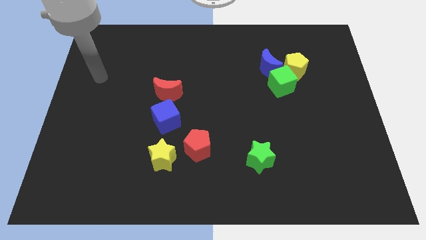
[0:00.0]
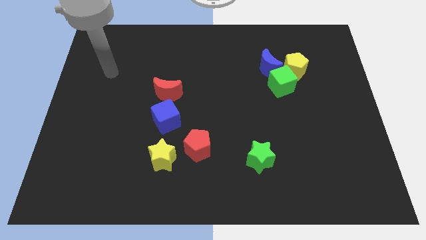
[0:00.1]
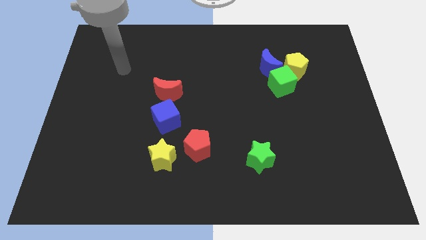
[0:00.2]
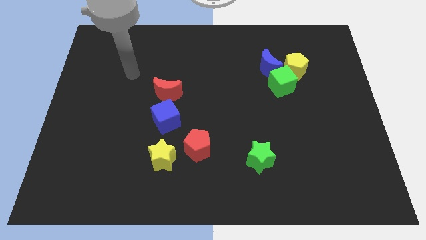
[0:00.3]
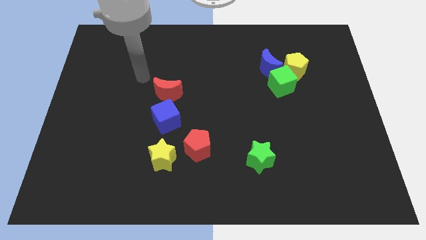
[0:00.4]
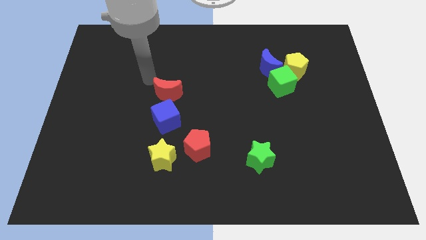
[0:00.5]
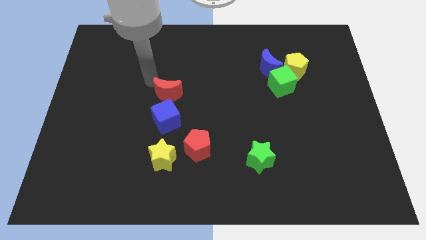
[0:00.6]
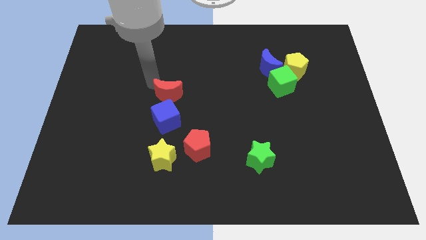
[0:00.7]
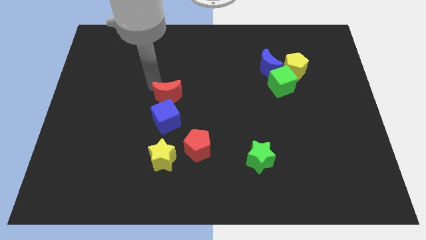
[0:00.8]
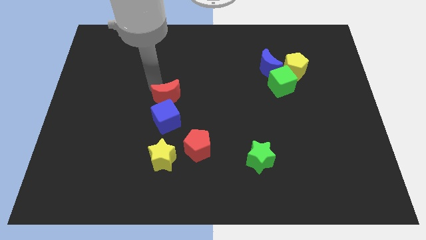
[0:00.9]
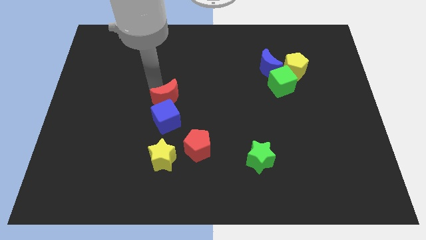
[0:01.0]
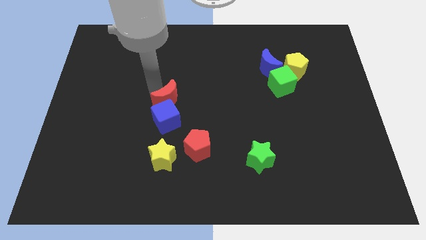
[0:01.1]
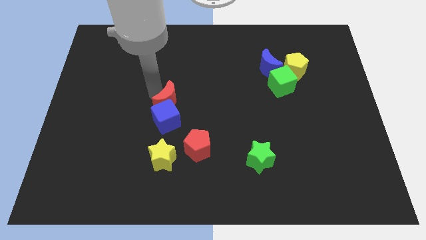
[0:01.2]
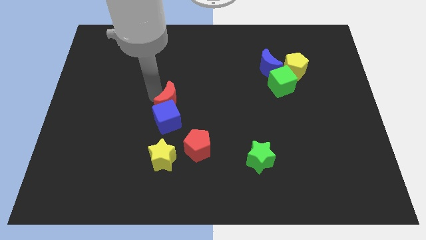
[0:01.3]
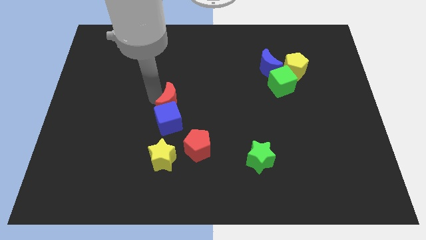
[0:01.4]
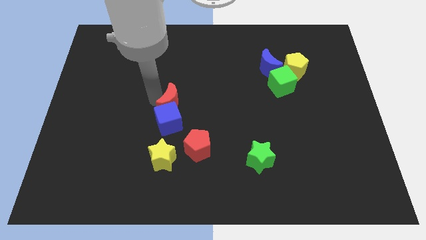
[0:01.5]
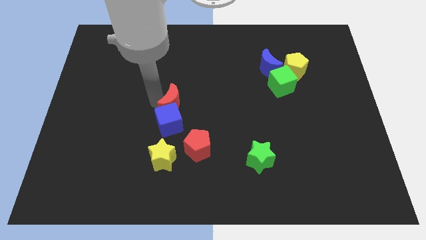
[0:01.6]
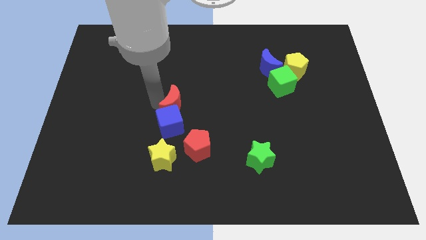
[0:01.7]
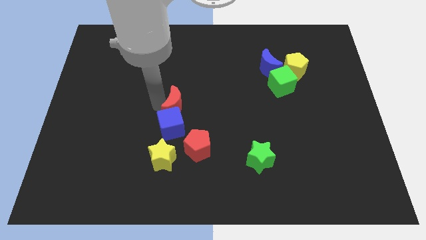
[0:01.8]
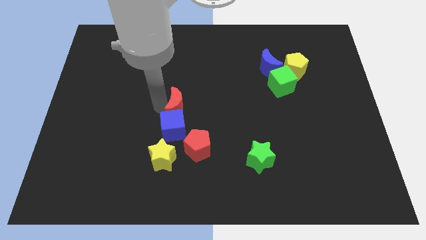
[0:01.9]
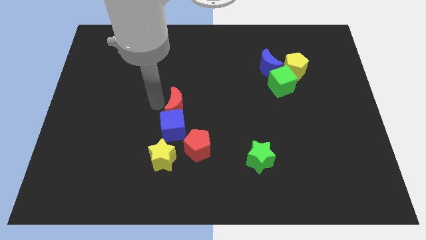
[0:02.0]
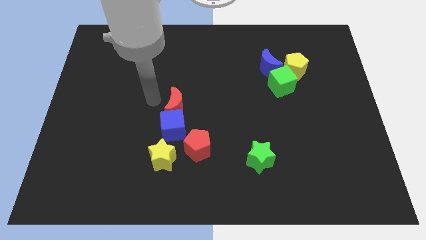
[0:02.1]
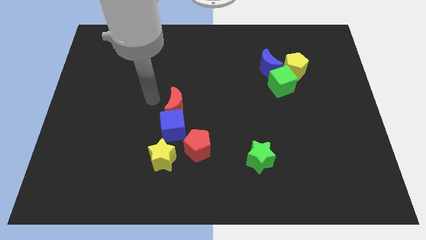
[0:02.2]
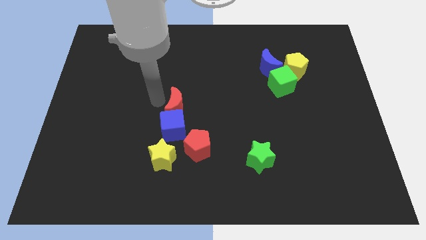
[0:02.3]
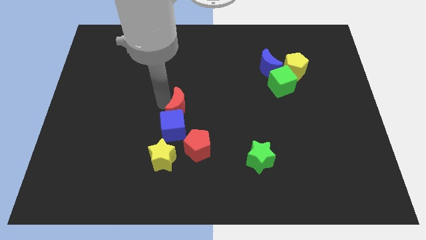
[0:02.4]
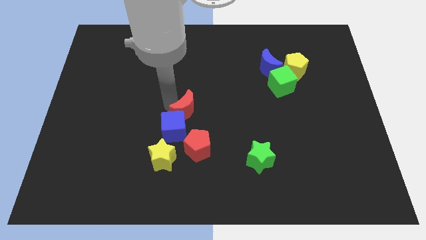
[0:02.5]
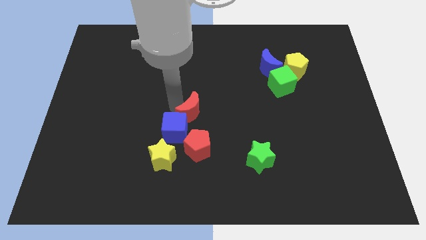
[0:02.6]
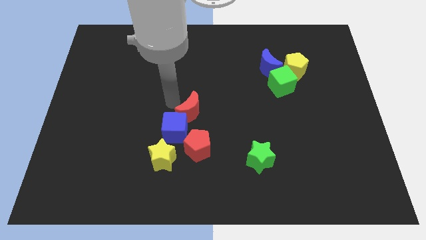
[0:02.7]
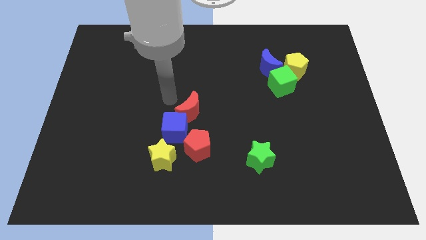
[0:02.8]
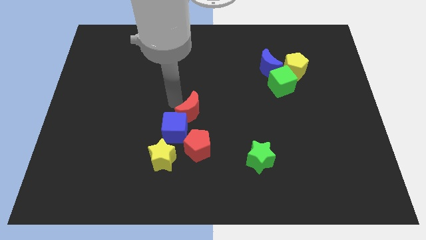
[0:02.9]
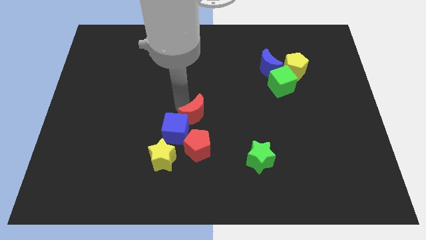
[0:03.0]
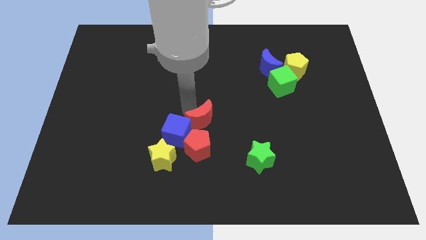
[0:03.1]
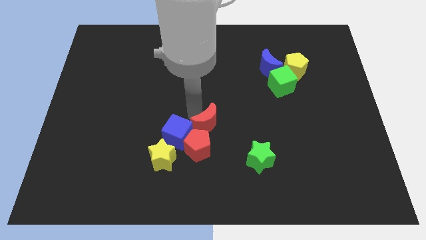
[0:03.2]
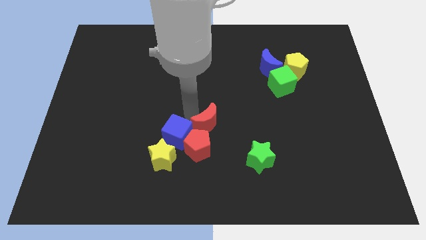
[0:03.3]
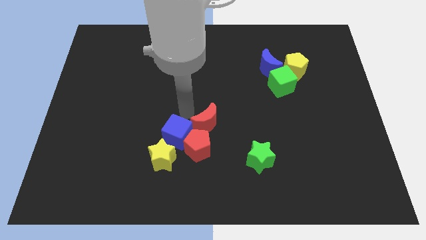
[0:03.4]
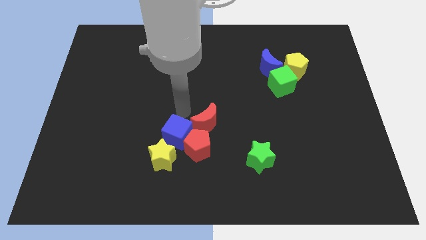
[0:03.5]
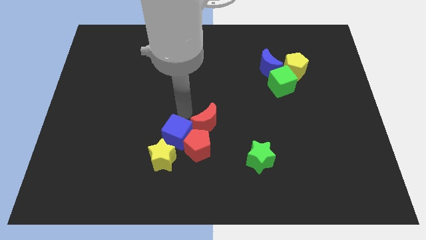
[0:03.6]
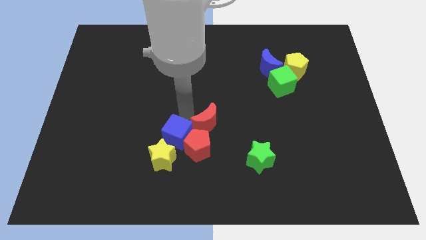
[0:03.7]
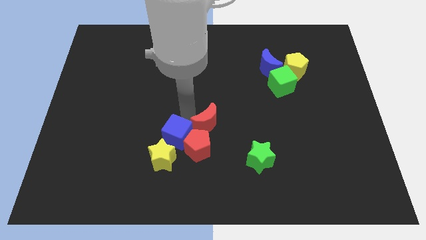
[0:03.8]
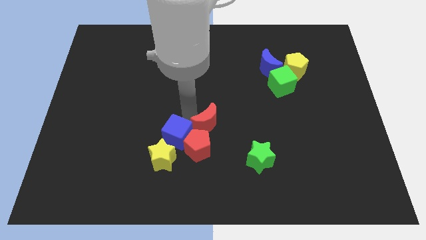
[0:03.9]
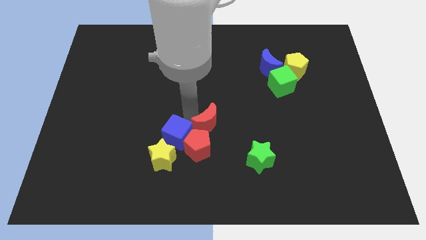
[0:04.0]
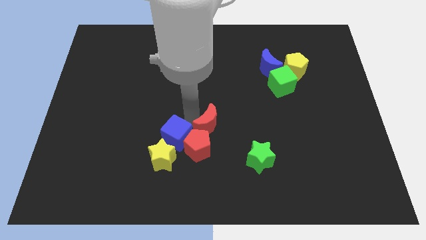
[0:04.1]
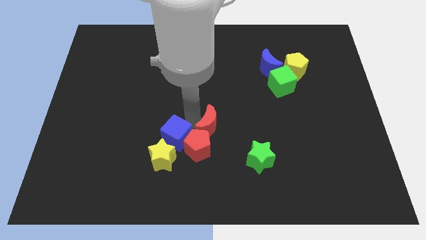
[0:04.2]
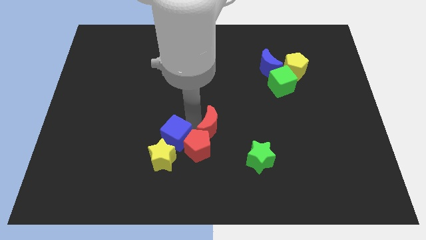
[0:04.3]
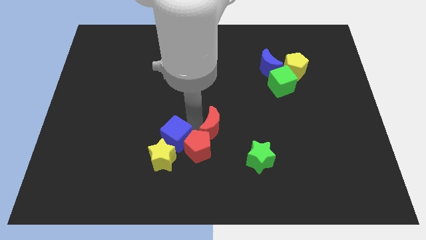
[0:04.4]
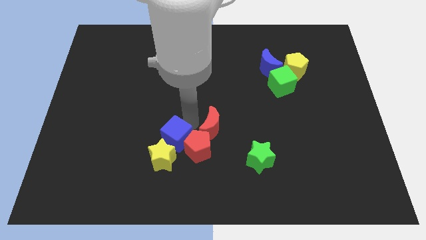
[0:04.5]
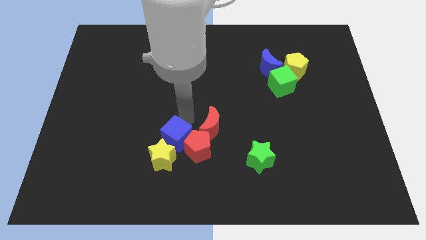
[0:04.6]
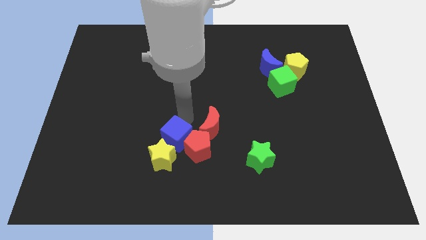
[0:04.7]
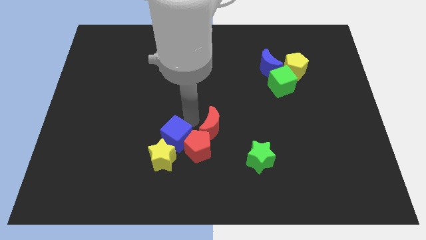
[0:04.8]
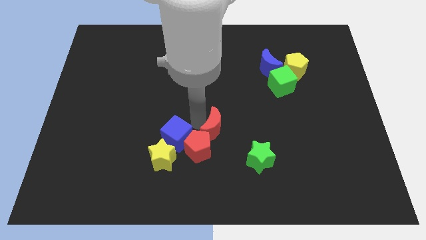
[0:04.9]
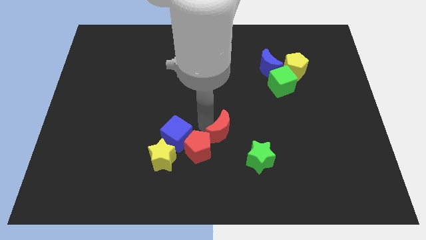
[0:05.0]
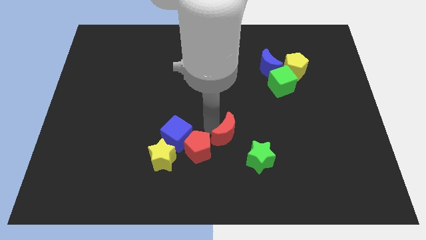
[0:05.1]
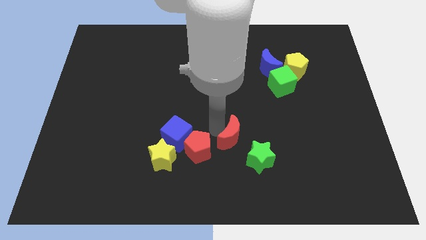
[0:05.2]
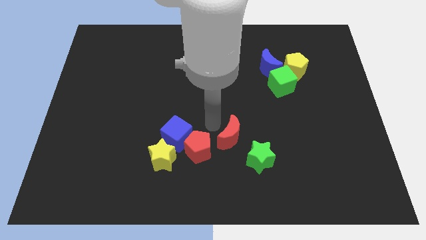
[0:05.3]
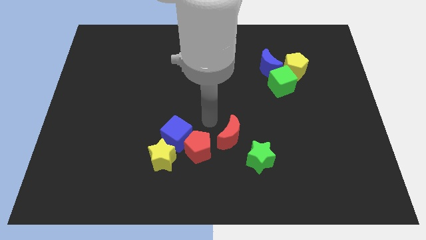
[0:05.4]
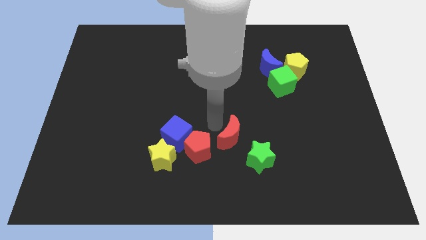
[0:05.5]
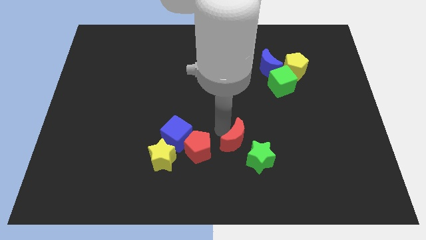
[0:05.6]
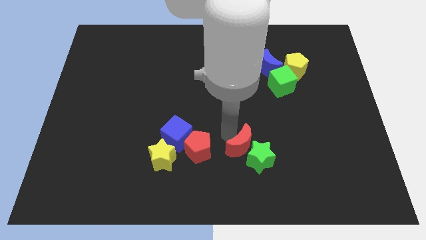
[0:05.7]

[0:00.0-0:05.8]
put the red moon to the green star

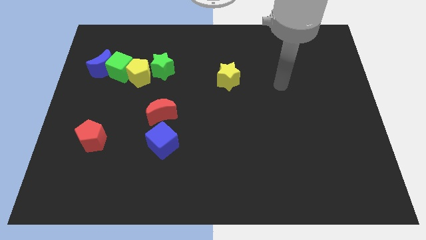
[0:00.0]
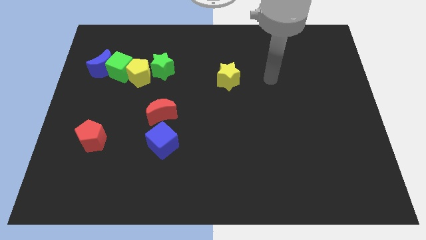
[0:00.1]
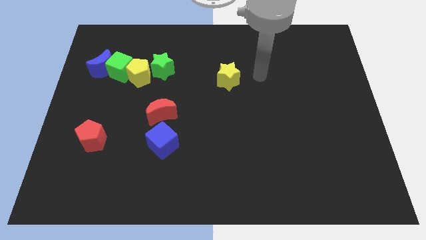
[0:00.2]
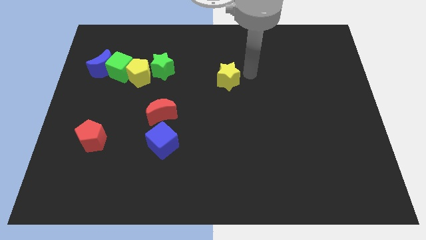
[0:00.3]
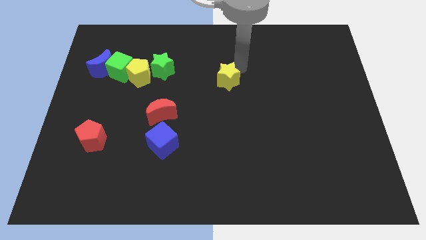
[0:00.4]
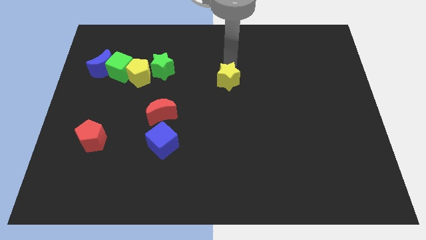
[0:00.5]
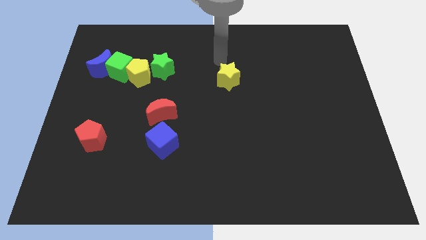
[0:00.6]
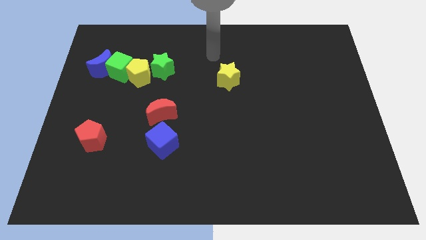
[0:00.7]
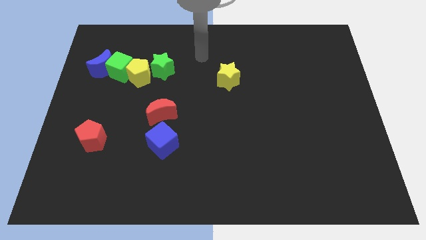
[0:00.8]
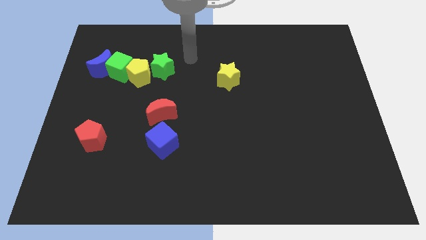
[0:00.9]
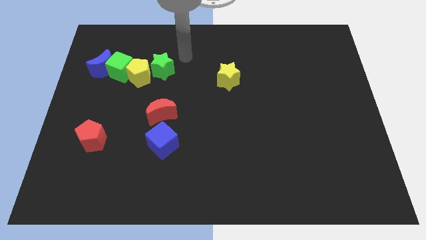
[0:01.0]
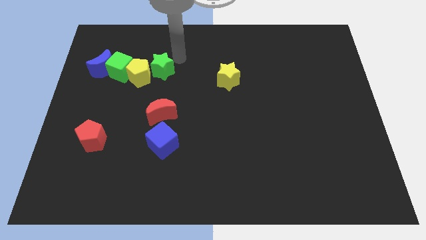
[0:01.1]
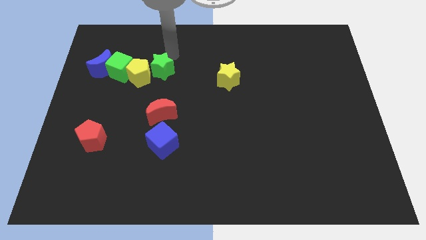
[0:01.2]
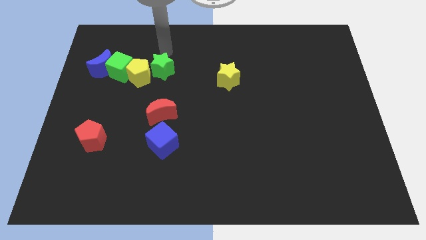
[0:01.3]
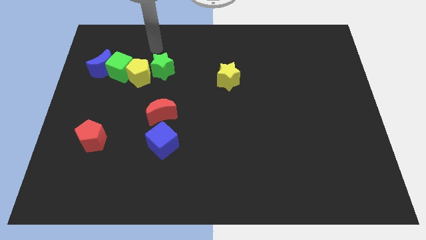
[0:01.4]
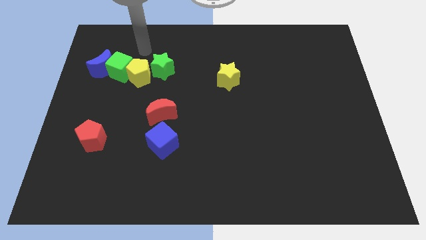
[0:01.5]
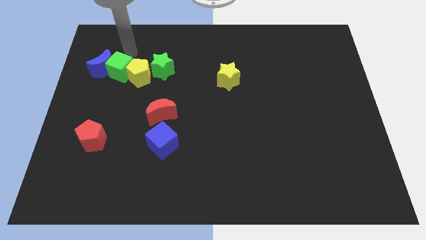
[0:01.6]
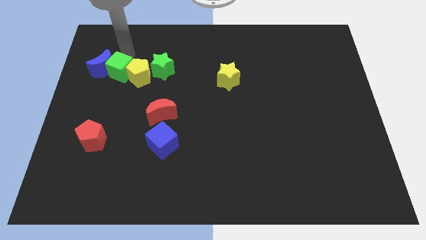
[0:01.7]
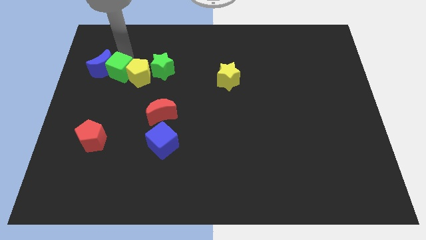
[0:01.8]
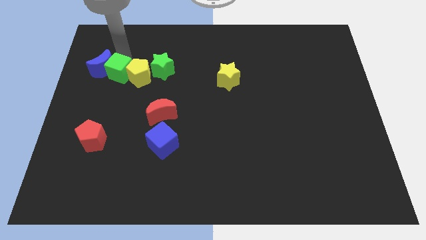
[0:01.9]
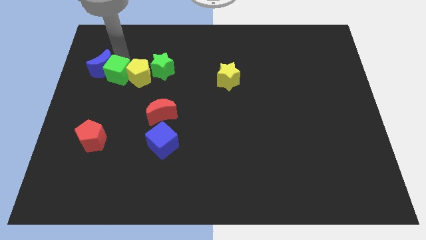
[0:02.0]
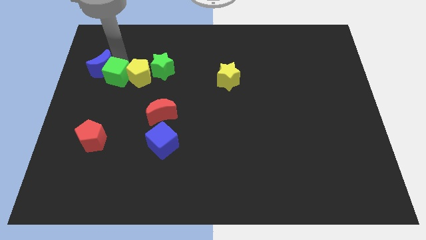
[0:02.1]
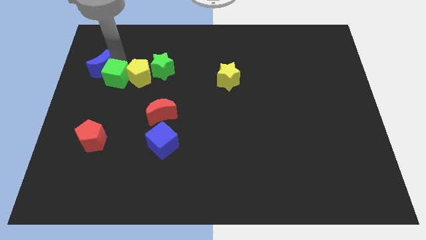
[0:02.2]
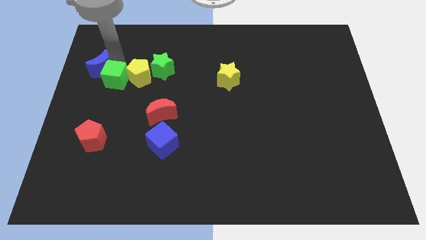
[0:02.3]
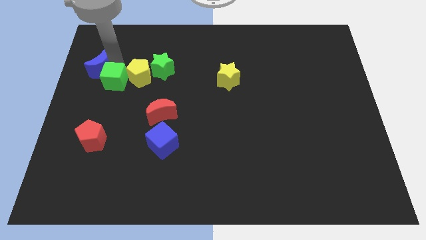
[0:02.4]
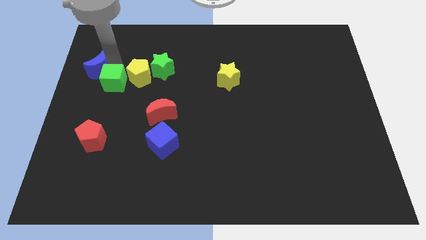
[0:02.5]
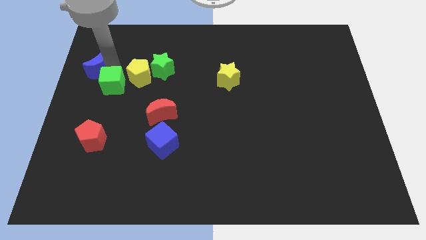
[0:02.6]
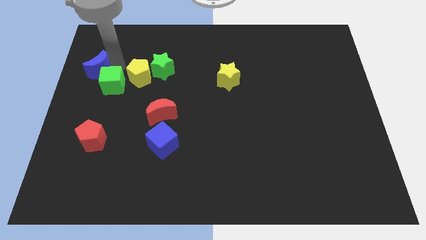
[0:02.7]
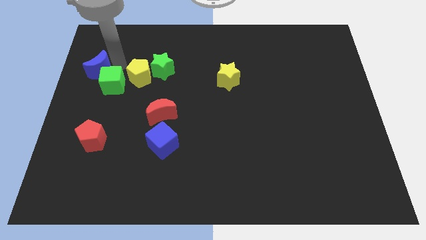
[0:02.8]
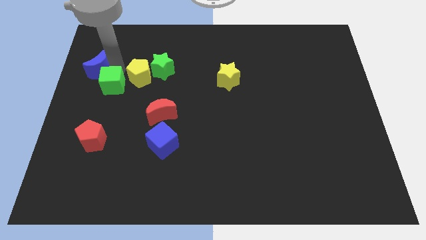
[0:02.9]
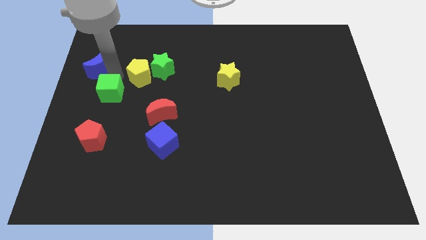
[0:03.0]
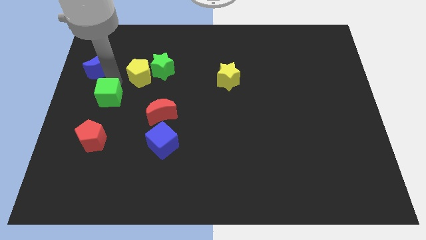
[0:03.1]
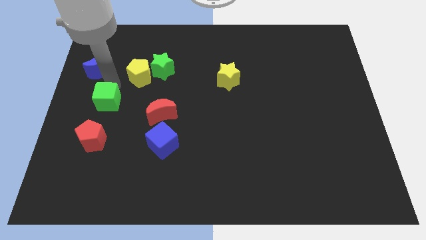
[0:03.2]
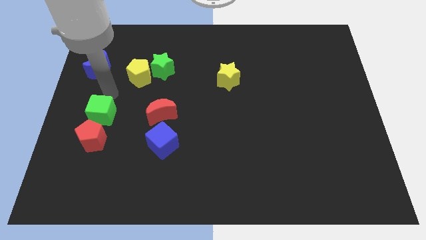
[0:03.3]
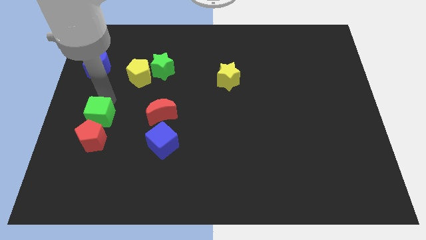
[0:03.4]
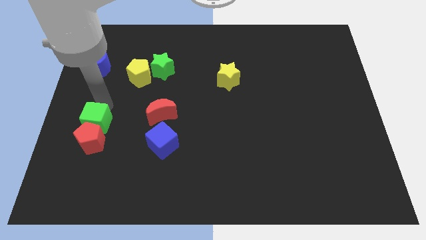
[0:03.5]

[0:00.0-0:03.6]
push the green cube towards the red pentagon
